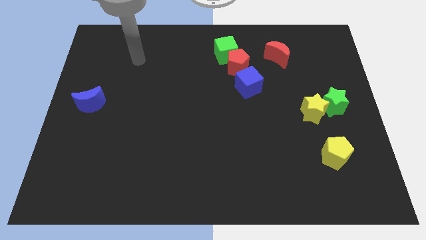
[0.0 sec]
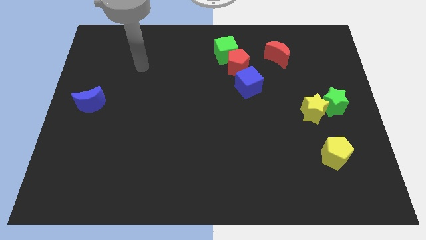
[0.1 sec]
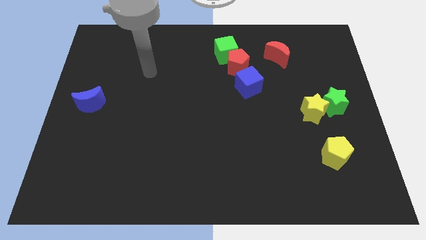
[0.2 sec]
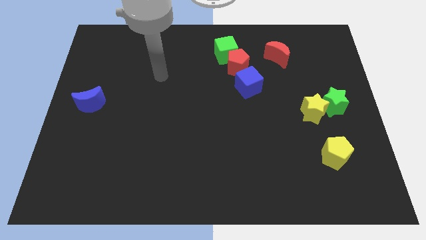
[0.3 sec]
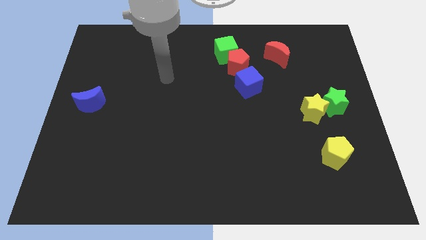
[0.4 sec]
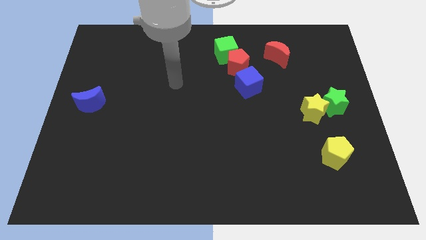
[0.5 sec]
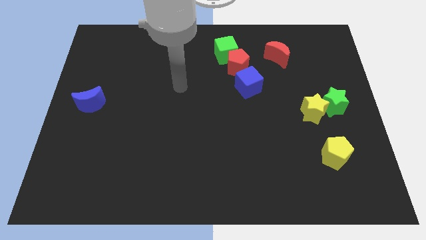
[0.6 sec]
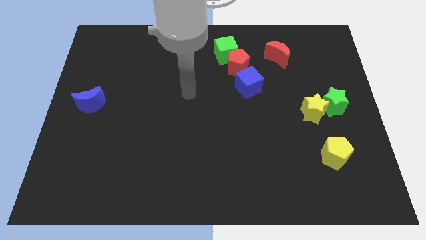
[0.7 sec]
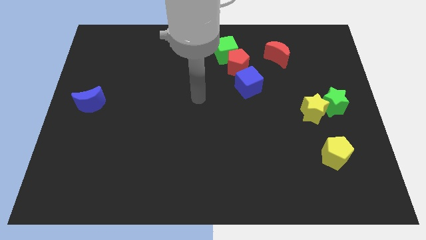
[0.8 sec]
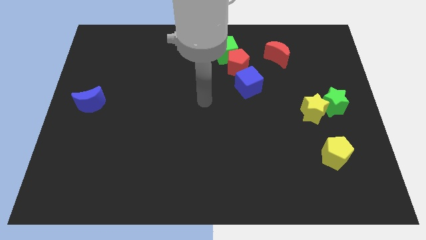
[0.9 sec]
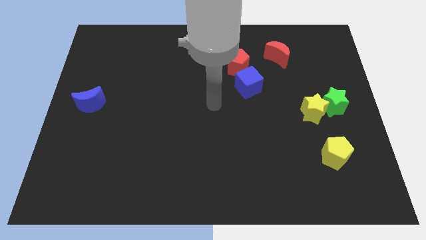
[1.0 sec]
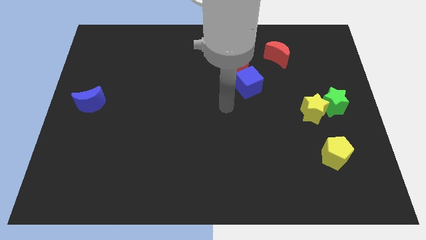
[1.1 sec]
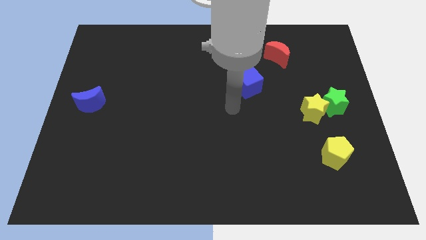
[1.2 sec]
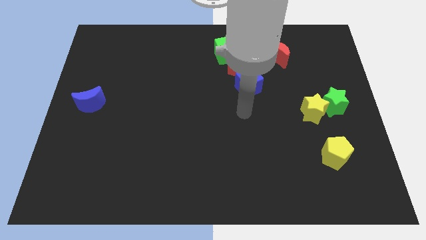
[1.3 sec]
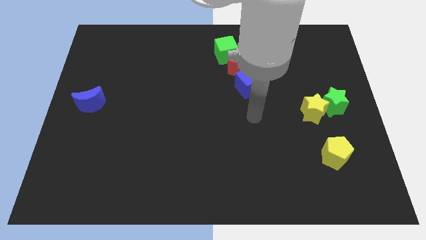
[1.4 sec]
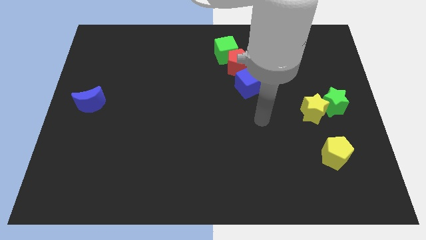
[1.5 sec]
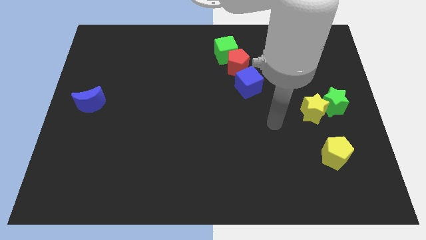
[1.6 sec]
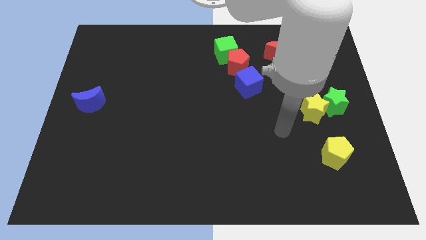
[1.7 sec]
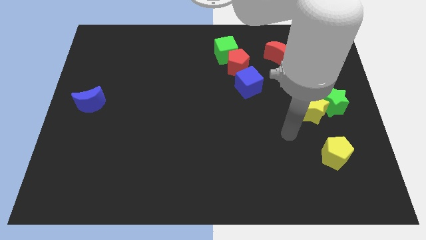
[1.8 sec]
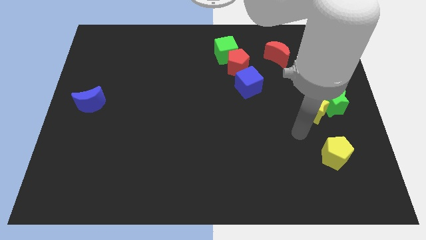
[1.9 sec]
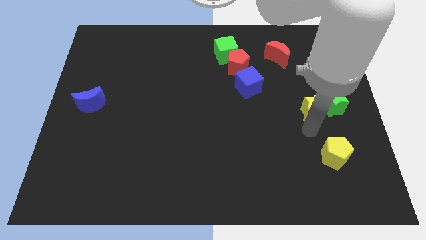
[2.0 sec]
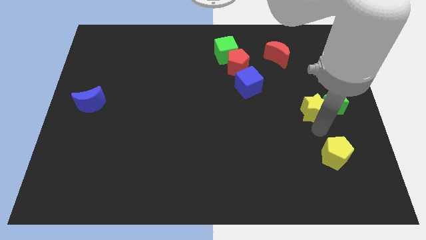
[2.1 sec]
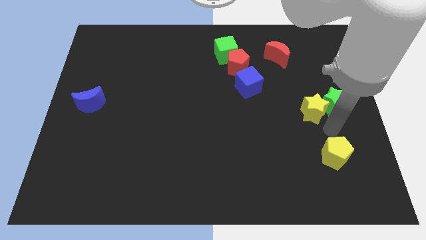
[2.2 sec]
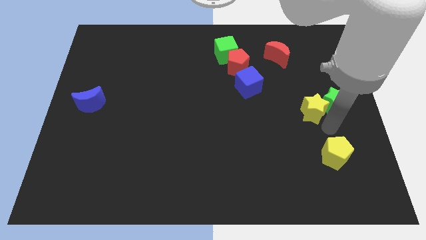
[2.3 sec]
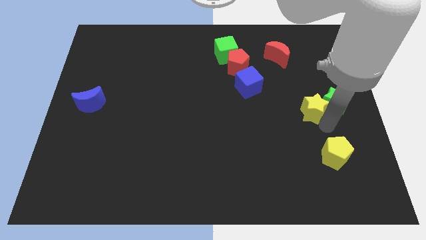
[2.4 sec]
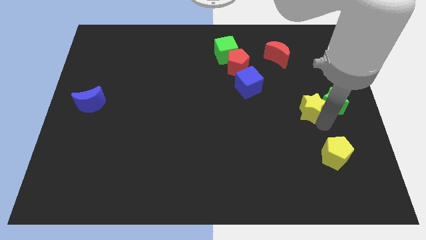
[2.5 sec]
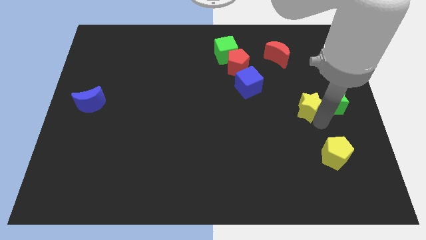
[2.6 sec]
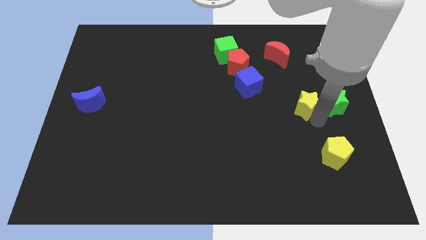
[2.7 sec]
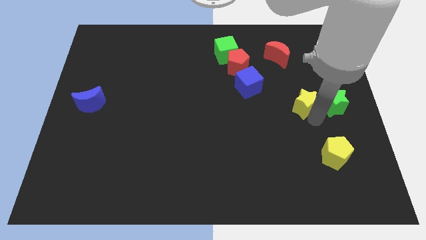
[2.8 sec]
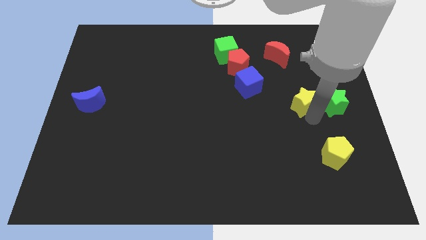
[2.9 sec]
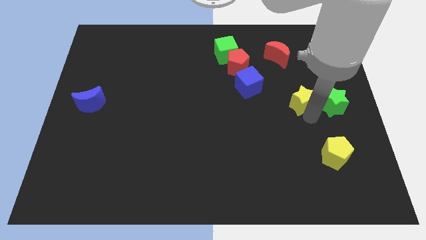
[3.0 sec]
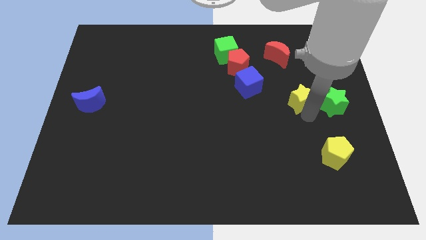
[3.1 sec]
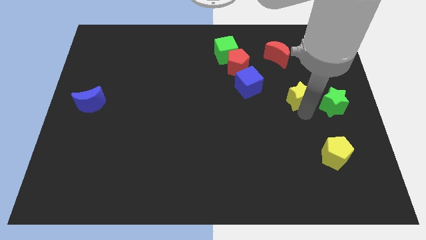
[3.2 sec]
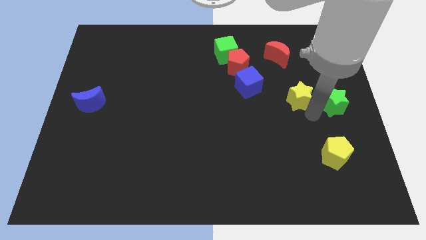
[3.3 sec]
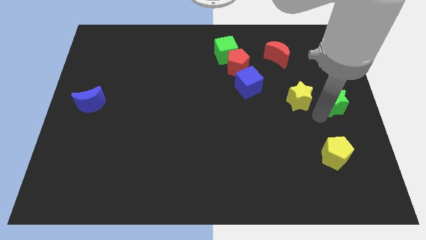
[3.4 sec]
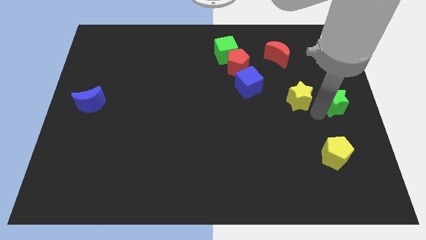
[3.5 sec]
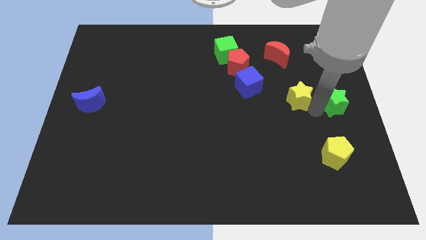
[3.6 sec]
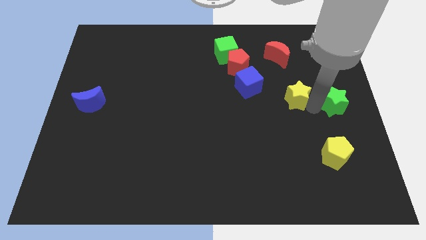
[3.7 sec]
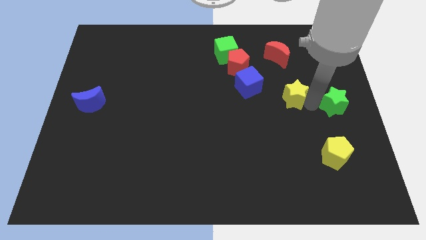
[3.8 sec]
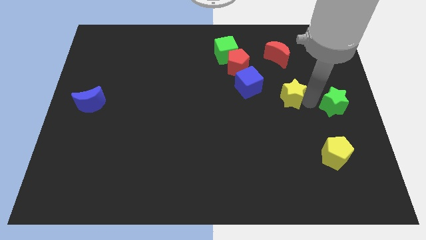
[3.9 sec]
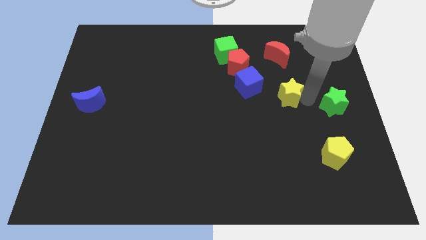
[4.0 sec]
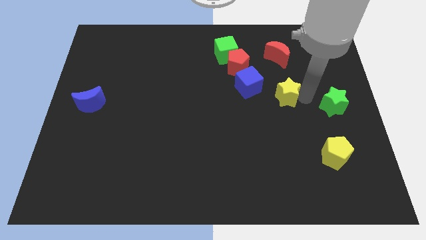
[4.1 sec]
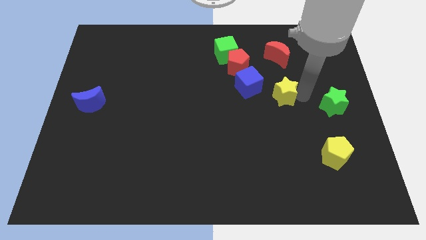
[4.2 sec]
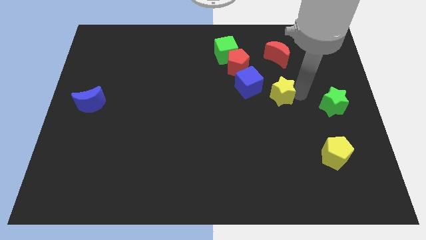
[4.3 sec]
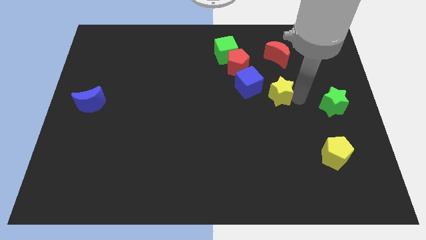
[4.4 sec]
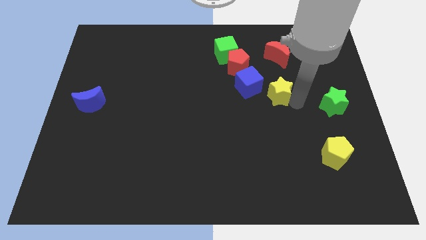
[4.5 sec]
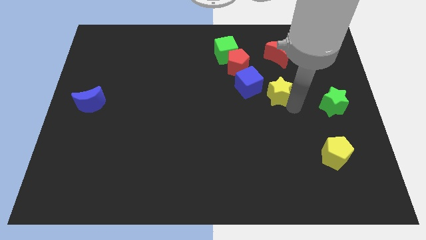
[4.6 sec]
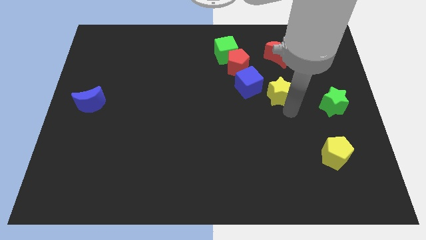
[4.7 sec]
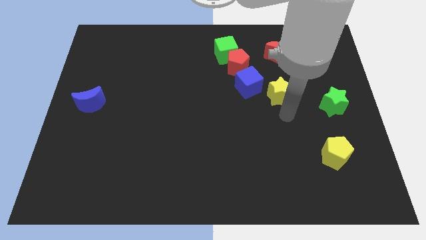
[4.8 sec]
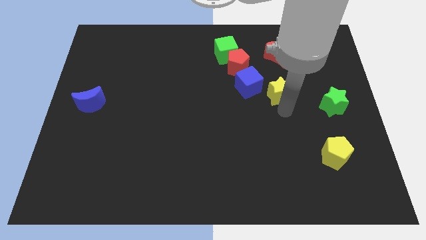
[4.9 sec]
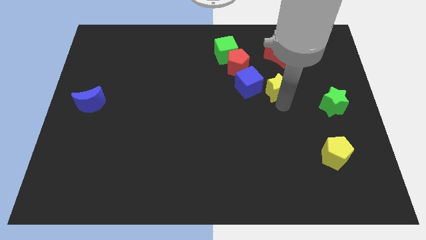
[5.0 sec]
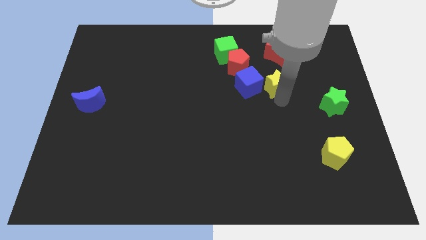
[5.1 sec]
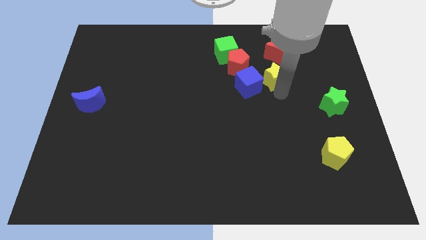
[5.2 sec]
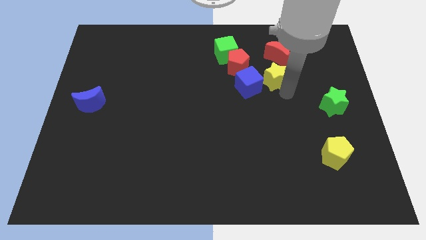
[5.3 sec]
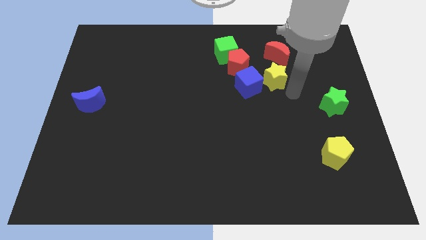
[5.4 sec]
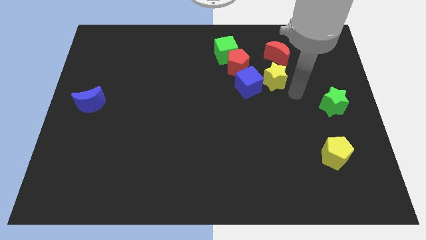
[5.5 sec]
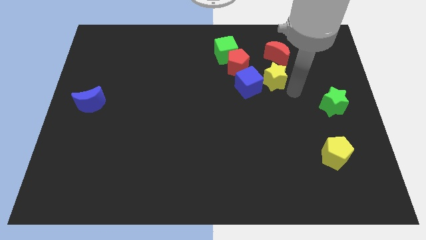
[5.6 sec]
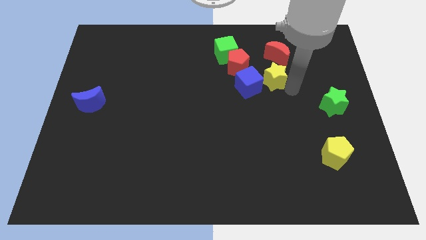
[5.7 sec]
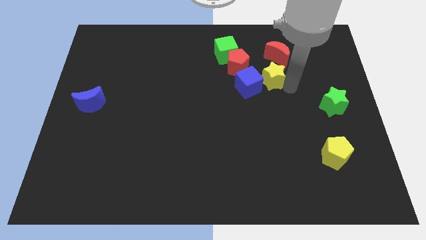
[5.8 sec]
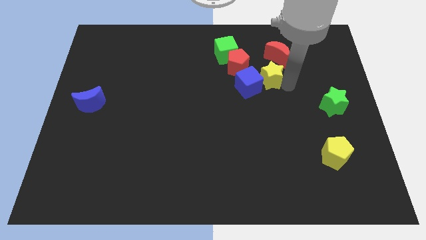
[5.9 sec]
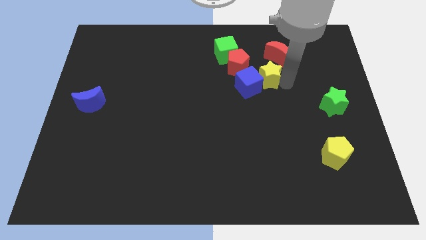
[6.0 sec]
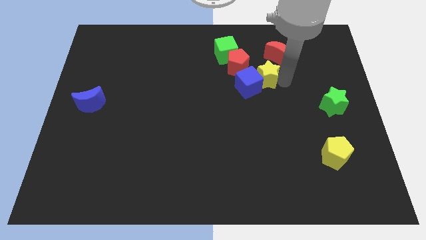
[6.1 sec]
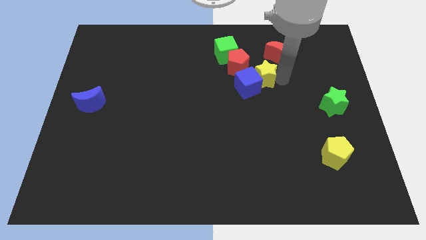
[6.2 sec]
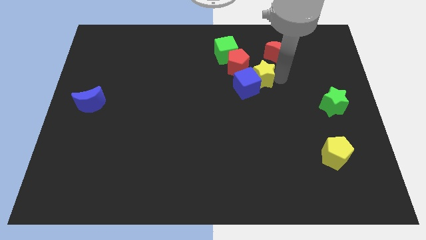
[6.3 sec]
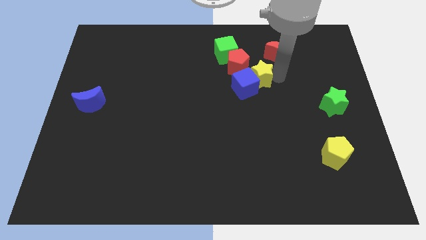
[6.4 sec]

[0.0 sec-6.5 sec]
put the yellow star to the top of the blue cube

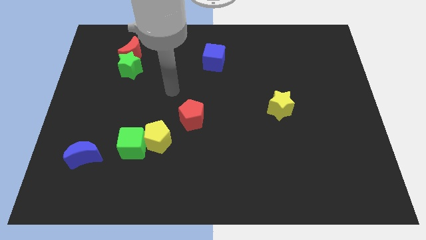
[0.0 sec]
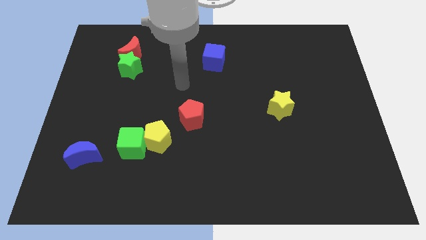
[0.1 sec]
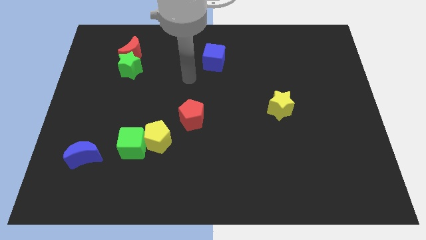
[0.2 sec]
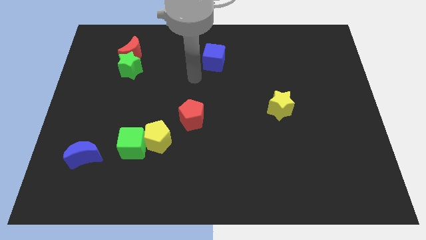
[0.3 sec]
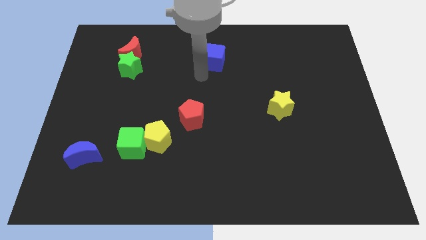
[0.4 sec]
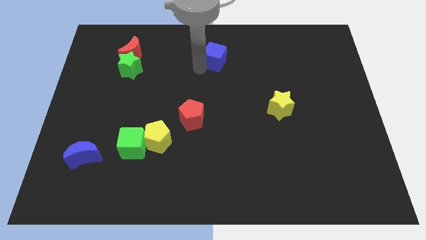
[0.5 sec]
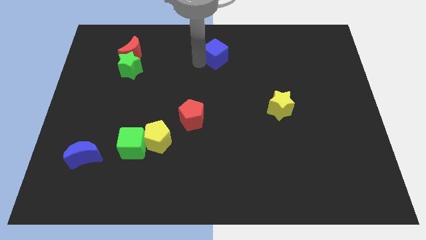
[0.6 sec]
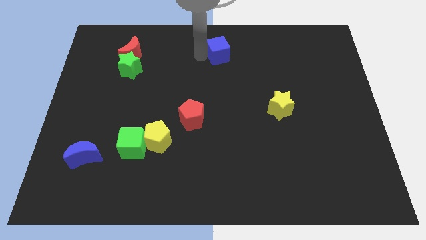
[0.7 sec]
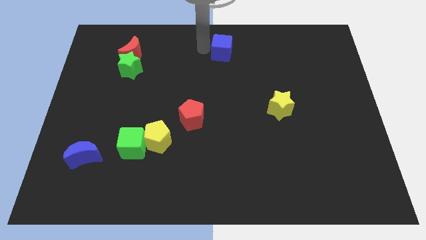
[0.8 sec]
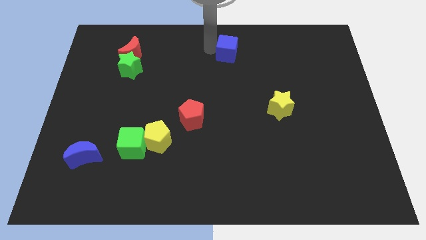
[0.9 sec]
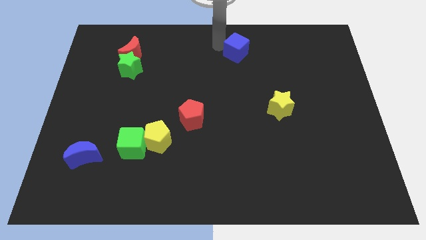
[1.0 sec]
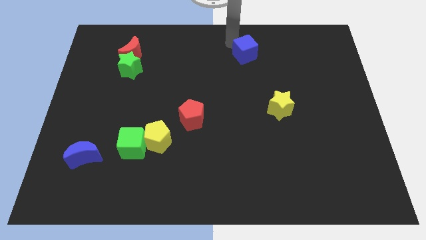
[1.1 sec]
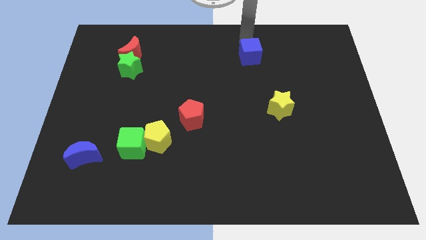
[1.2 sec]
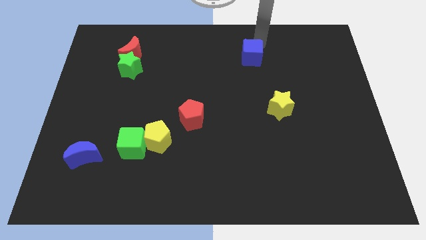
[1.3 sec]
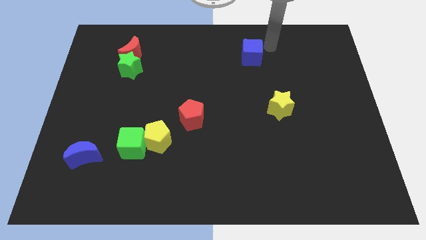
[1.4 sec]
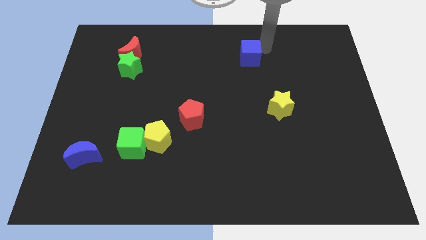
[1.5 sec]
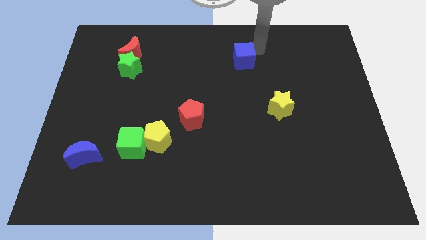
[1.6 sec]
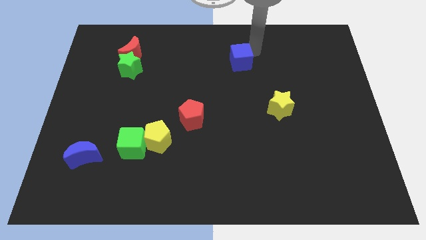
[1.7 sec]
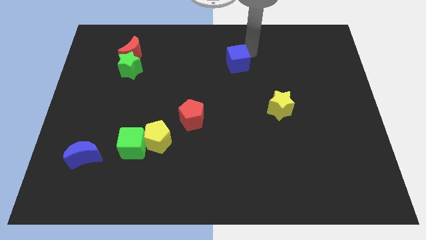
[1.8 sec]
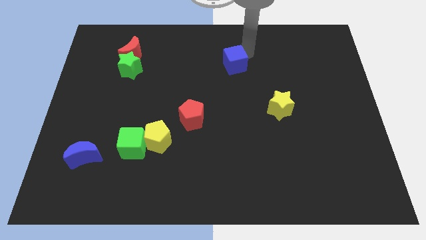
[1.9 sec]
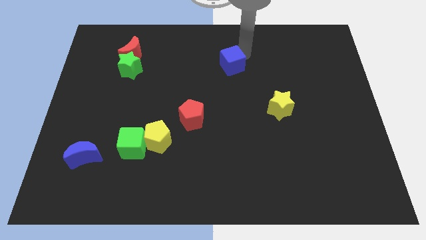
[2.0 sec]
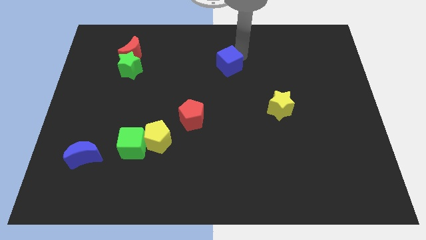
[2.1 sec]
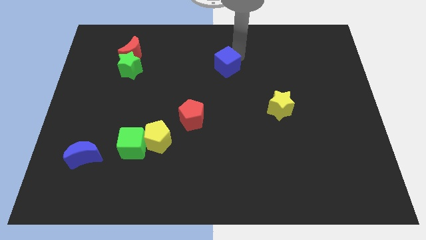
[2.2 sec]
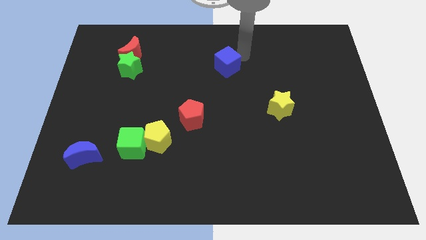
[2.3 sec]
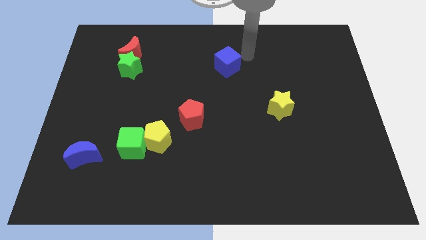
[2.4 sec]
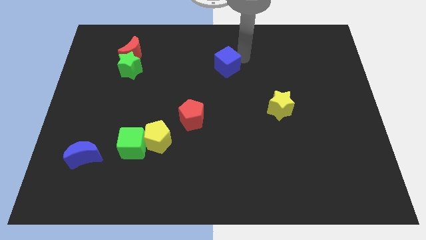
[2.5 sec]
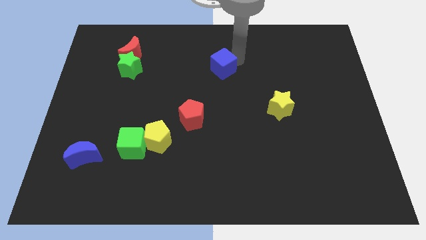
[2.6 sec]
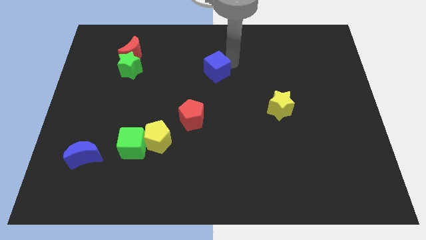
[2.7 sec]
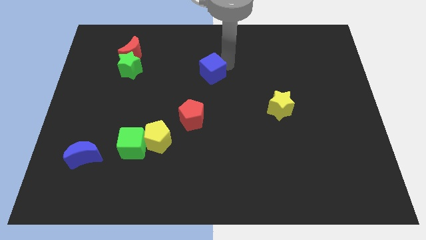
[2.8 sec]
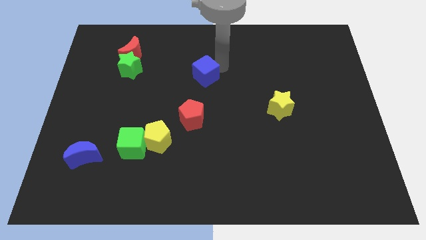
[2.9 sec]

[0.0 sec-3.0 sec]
put the blue cube to the top of the red pentagon
